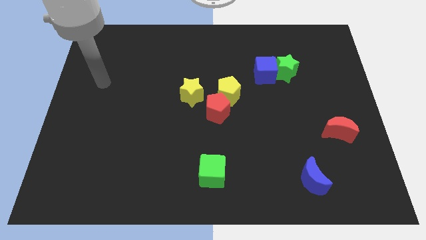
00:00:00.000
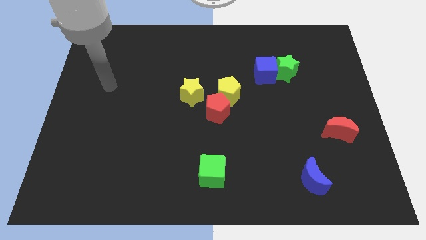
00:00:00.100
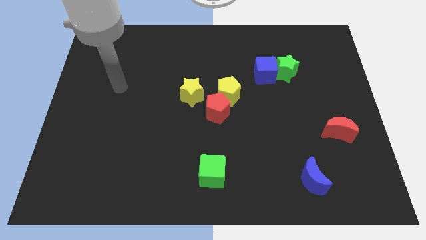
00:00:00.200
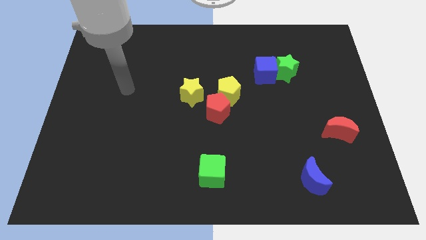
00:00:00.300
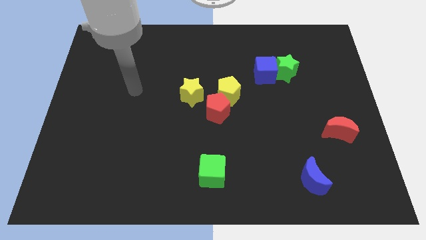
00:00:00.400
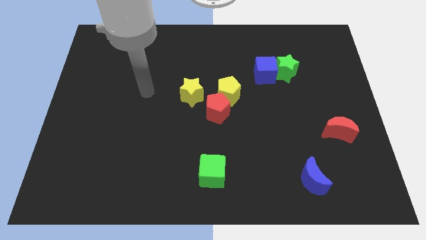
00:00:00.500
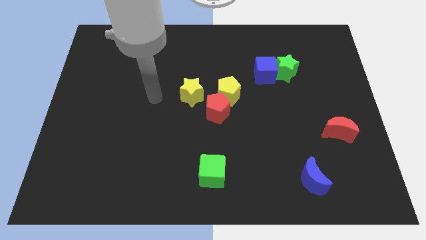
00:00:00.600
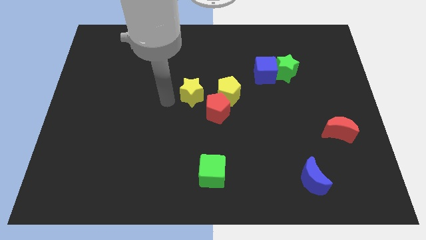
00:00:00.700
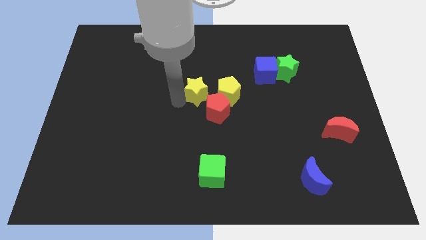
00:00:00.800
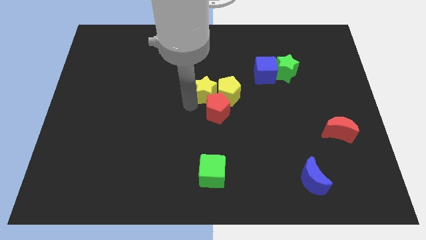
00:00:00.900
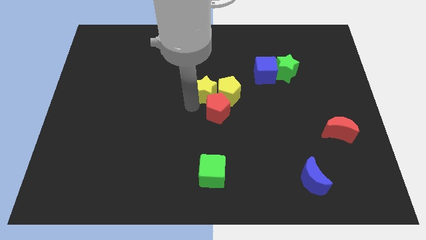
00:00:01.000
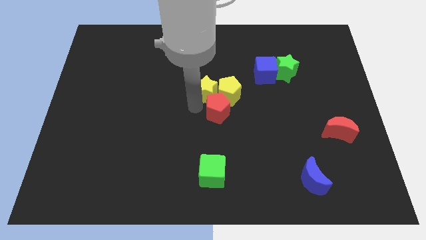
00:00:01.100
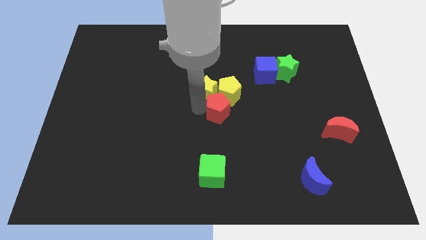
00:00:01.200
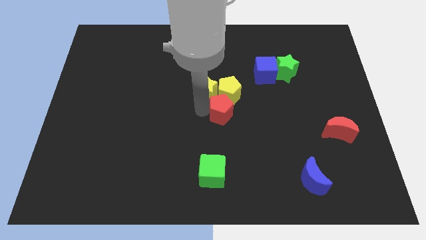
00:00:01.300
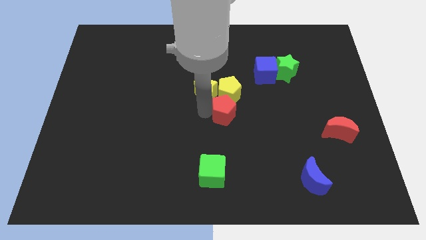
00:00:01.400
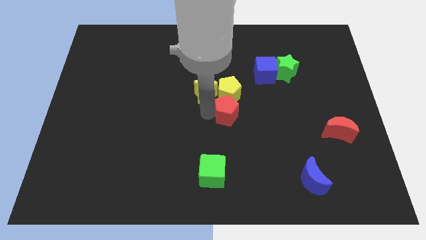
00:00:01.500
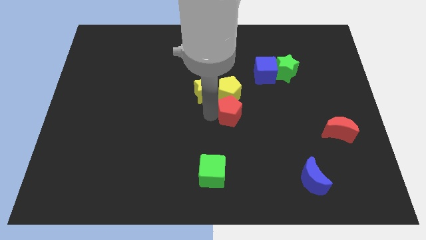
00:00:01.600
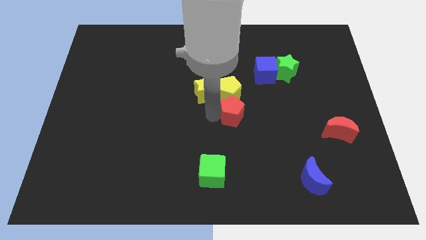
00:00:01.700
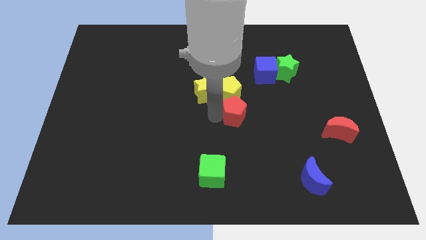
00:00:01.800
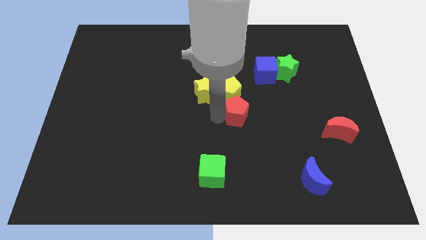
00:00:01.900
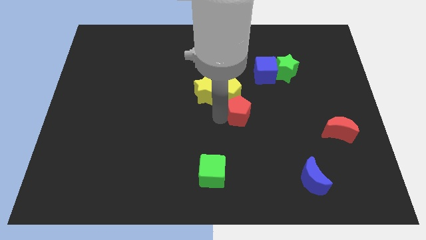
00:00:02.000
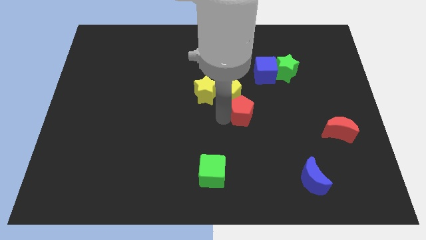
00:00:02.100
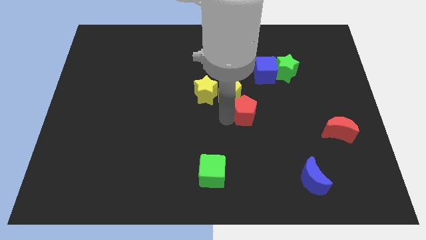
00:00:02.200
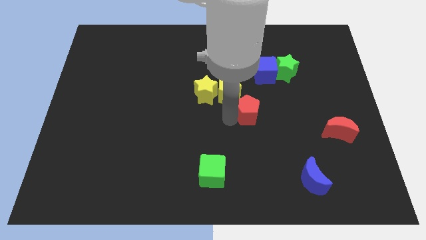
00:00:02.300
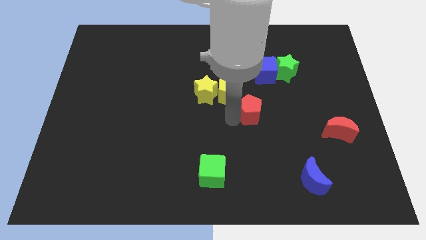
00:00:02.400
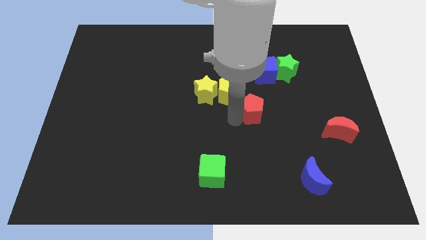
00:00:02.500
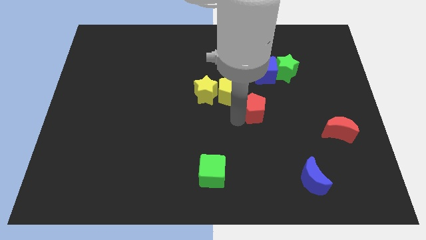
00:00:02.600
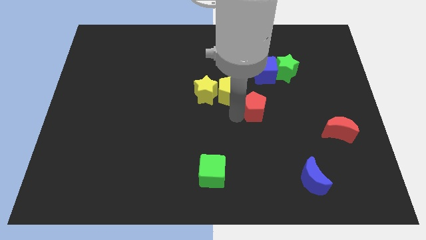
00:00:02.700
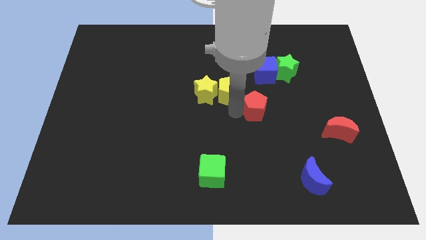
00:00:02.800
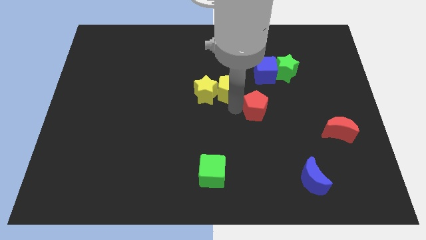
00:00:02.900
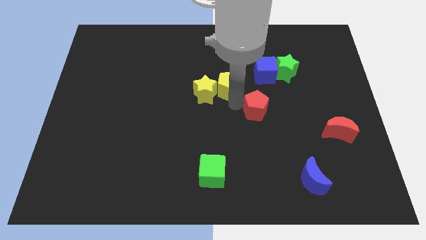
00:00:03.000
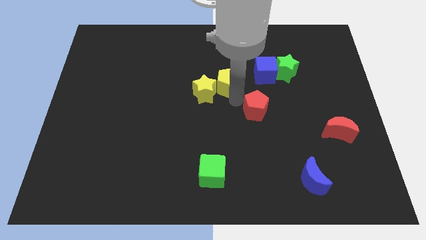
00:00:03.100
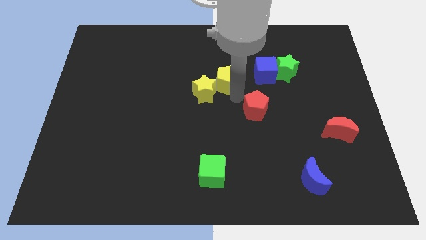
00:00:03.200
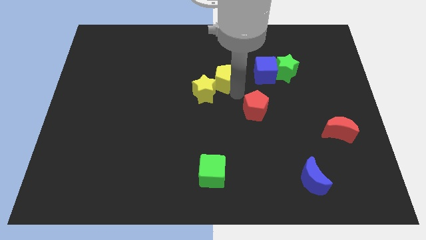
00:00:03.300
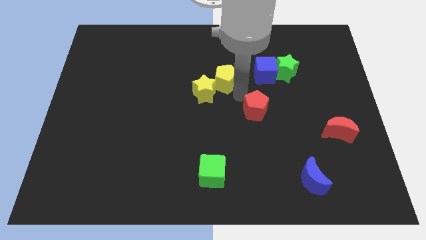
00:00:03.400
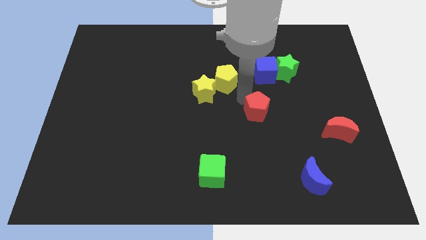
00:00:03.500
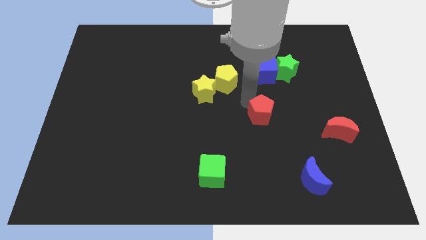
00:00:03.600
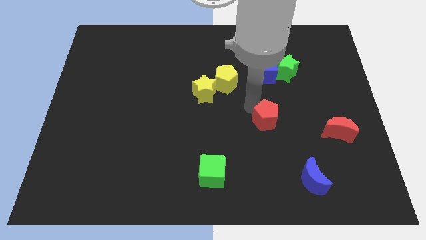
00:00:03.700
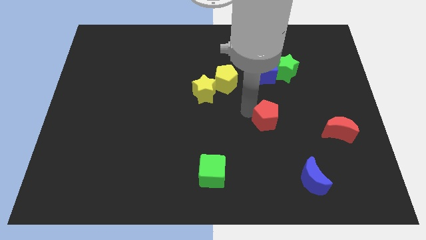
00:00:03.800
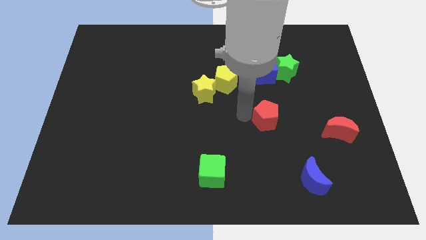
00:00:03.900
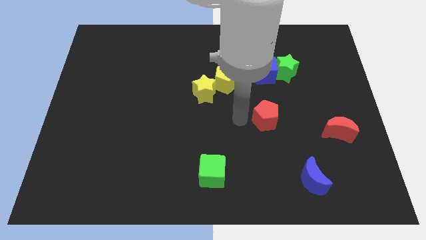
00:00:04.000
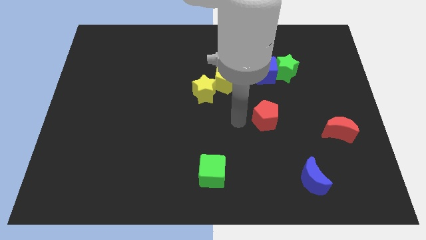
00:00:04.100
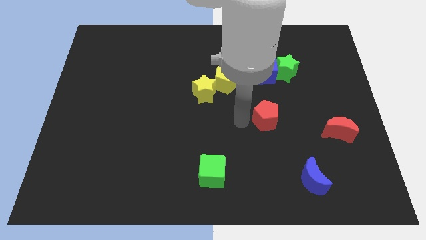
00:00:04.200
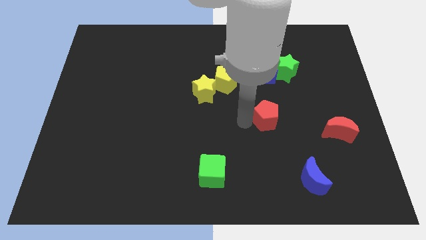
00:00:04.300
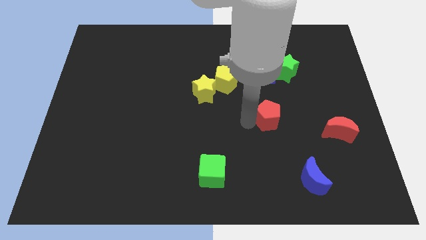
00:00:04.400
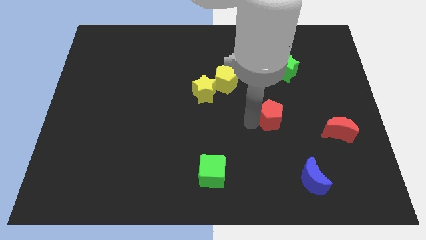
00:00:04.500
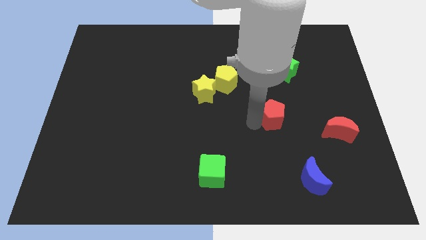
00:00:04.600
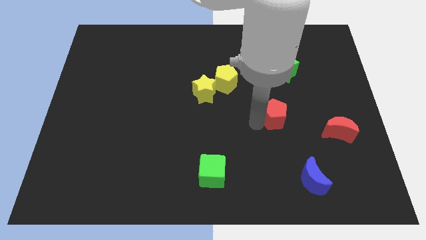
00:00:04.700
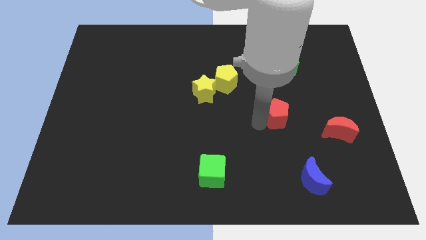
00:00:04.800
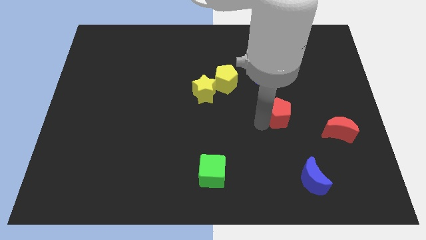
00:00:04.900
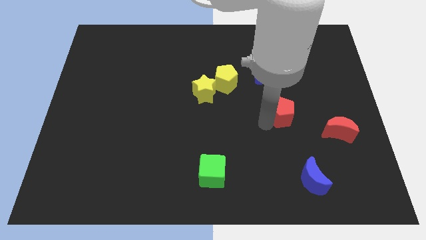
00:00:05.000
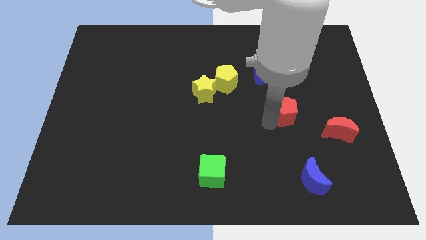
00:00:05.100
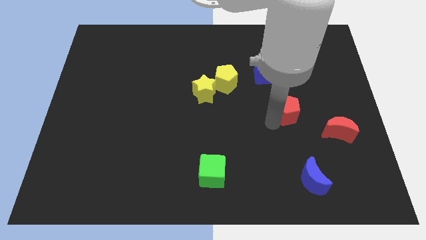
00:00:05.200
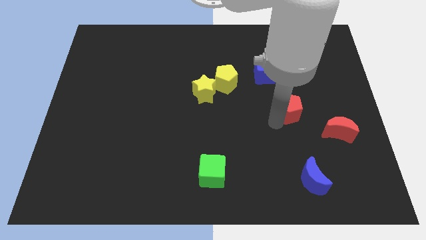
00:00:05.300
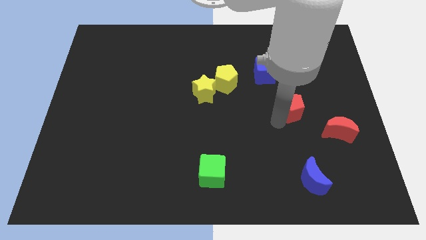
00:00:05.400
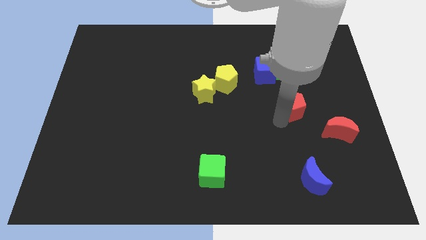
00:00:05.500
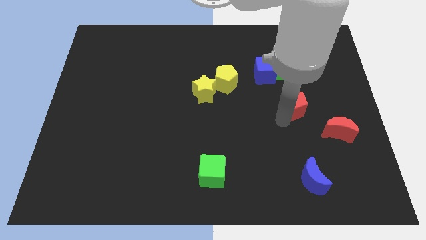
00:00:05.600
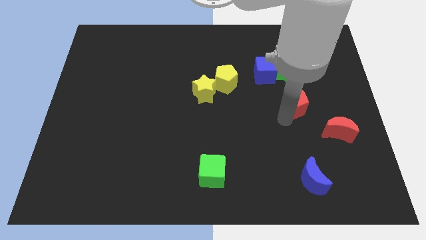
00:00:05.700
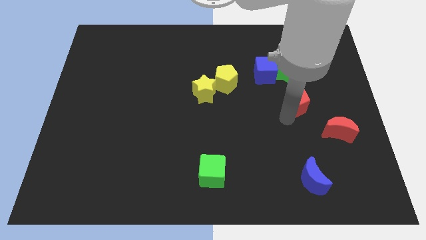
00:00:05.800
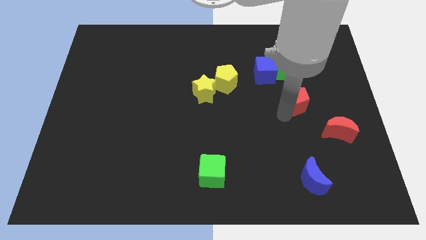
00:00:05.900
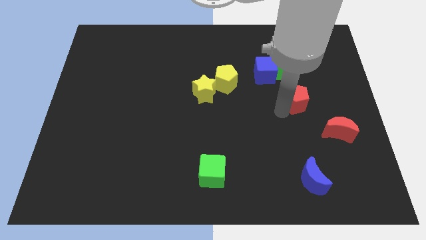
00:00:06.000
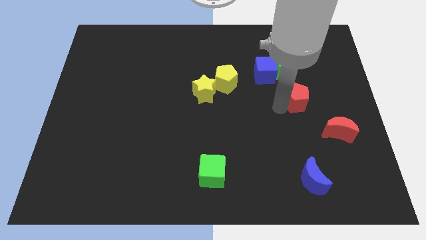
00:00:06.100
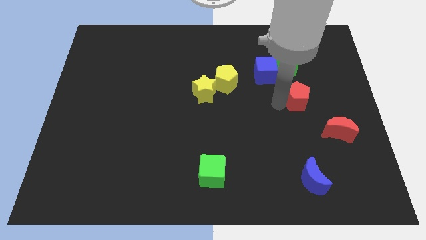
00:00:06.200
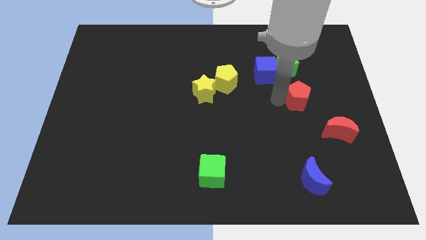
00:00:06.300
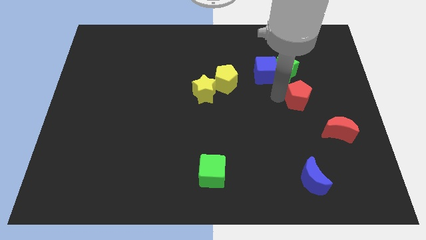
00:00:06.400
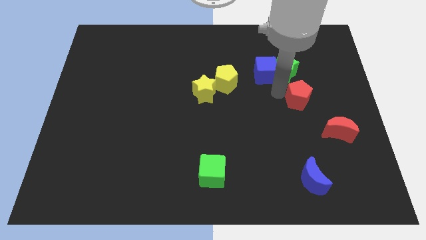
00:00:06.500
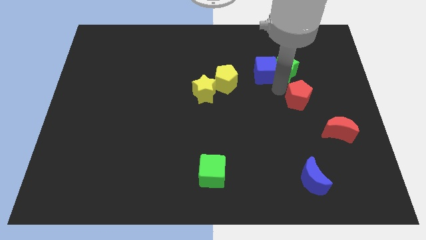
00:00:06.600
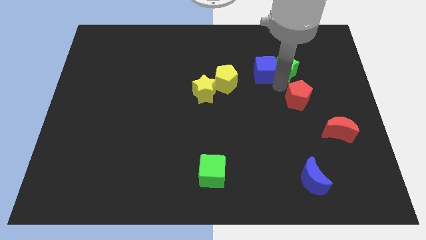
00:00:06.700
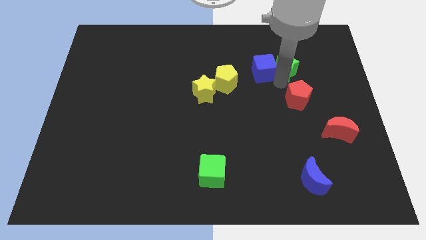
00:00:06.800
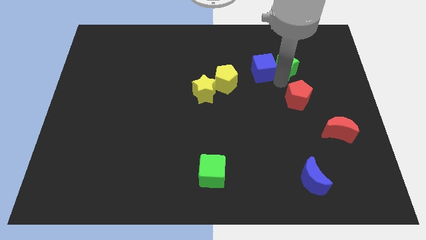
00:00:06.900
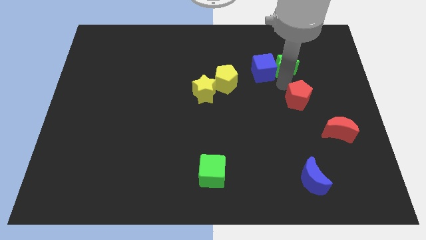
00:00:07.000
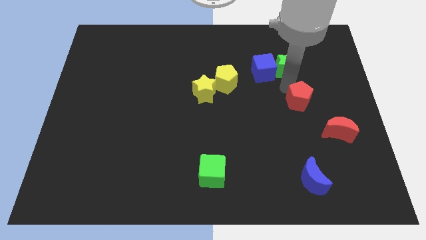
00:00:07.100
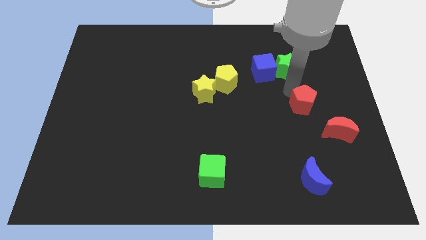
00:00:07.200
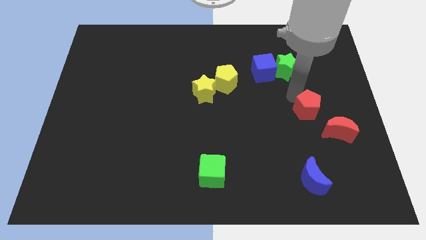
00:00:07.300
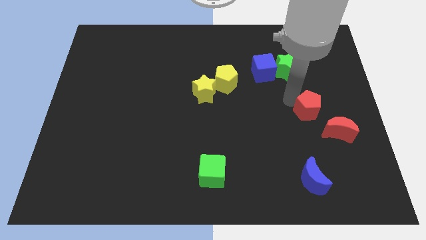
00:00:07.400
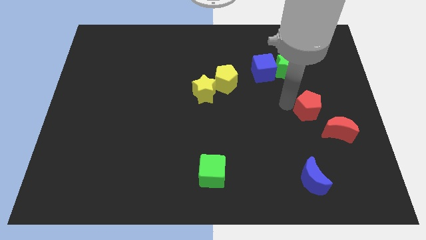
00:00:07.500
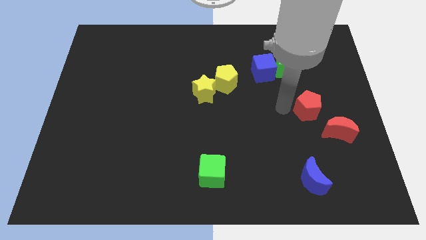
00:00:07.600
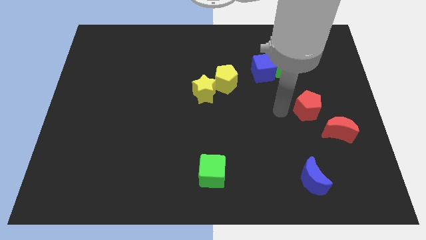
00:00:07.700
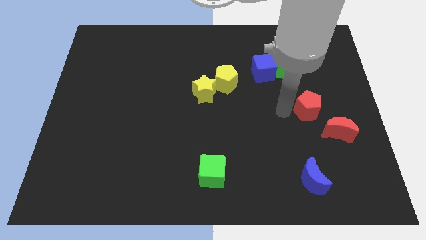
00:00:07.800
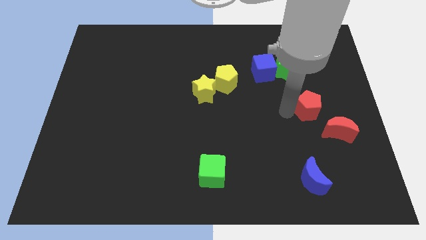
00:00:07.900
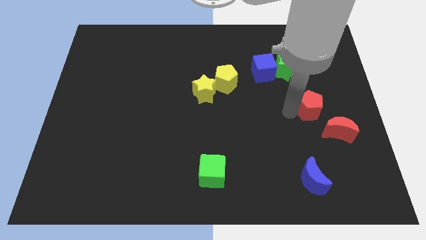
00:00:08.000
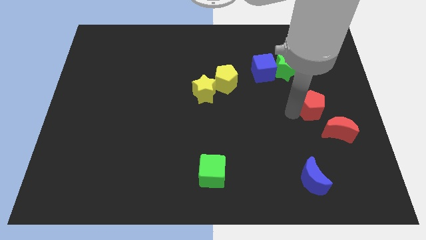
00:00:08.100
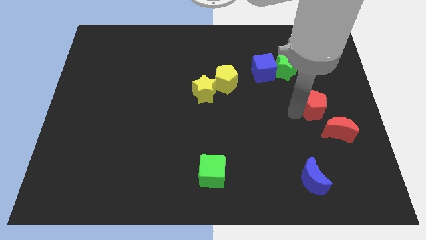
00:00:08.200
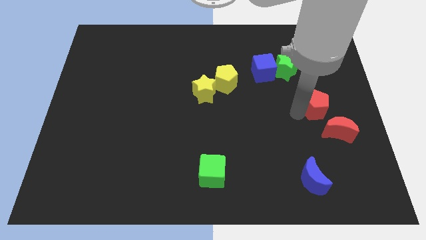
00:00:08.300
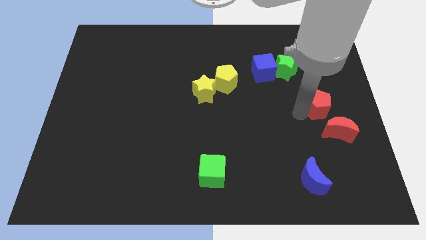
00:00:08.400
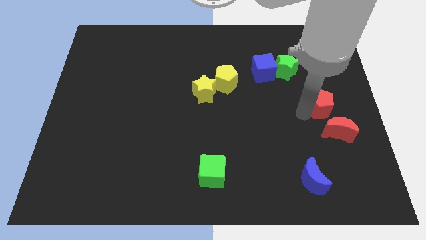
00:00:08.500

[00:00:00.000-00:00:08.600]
slide the red pentagon to the center right
